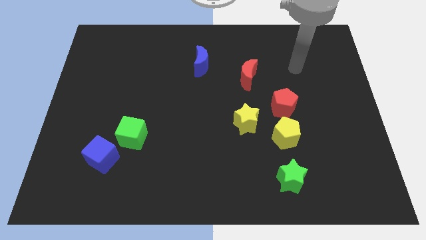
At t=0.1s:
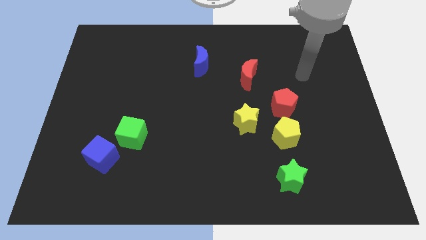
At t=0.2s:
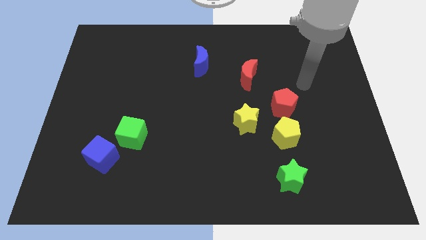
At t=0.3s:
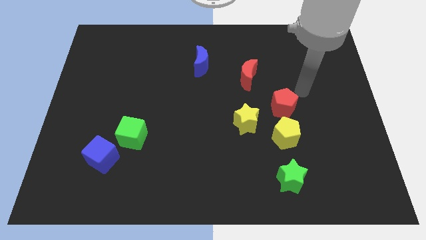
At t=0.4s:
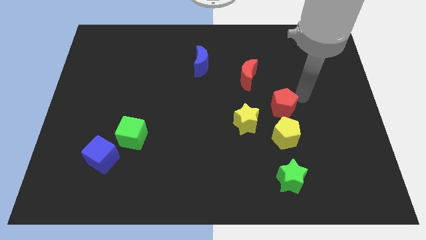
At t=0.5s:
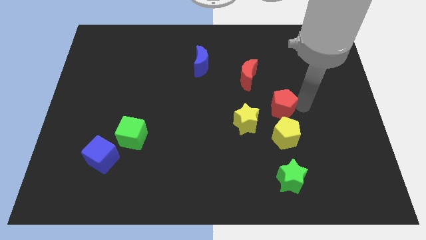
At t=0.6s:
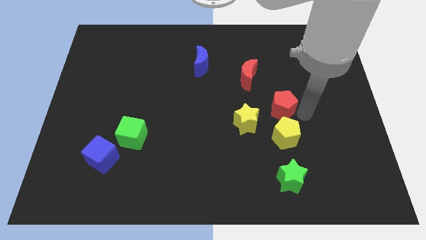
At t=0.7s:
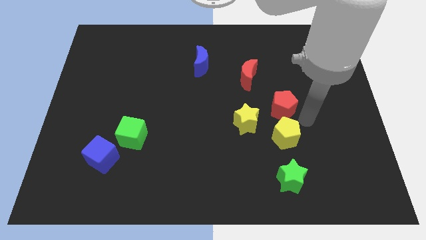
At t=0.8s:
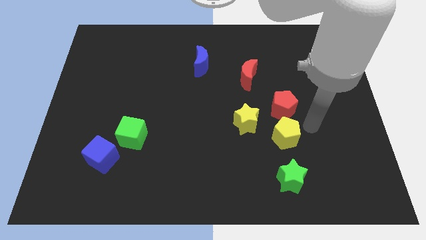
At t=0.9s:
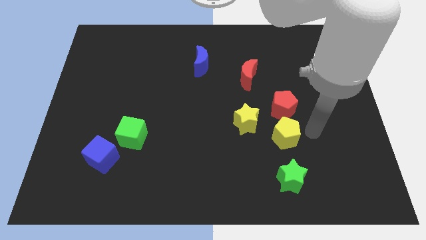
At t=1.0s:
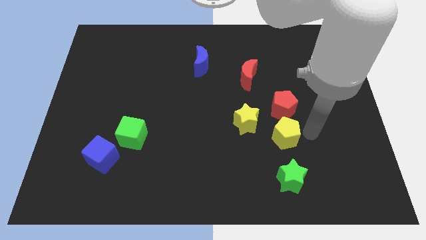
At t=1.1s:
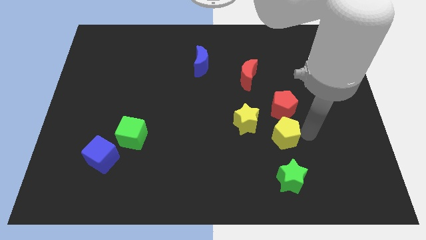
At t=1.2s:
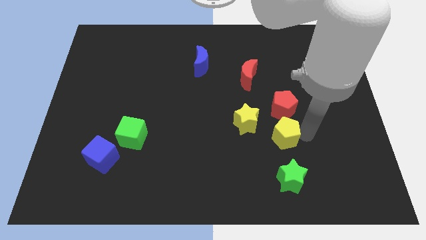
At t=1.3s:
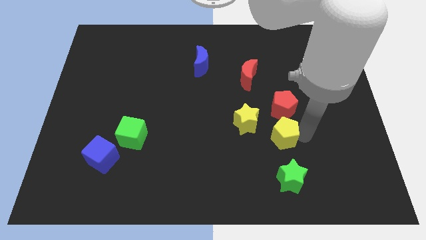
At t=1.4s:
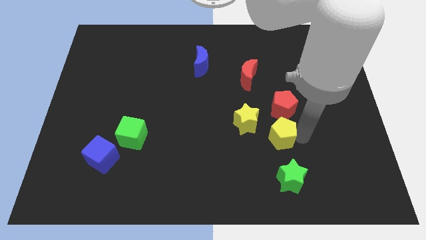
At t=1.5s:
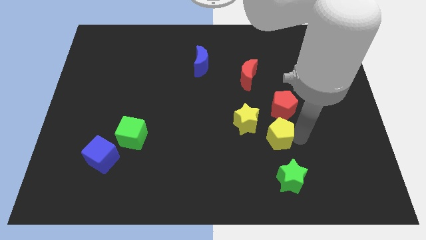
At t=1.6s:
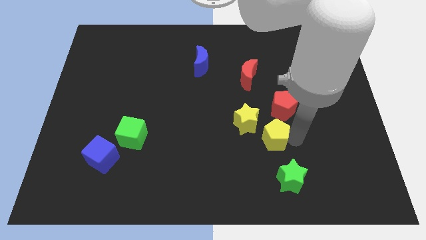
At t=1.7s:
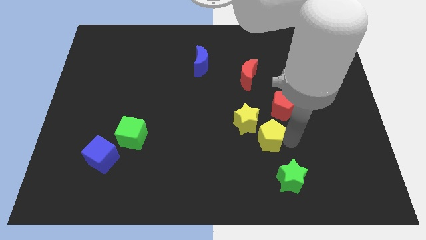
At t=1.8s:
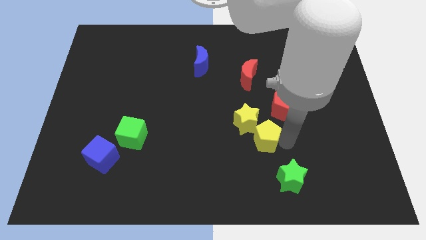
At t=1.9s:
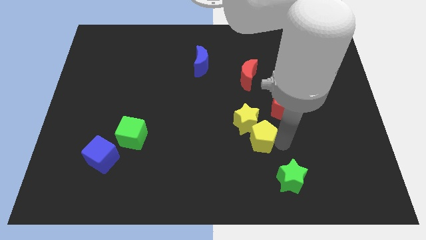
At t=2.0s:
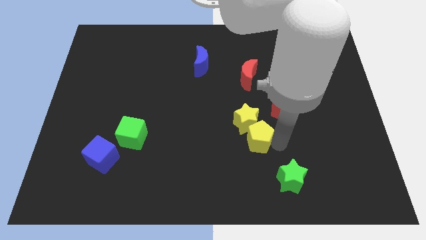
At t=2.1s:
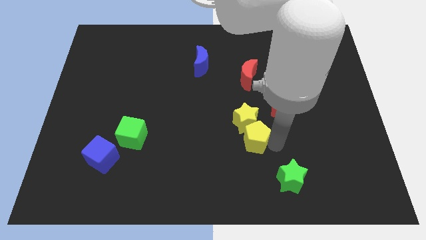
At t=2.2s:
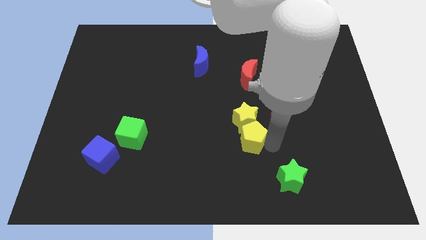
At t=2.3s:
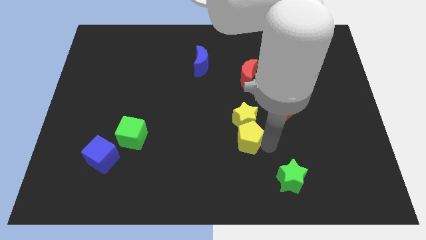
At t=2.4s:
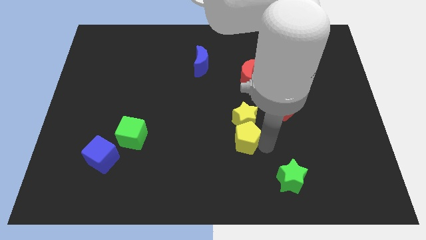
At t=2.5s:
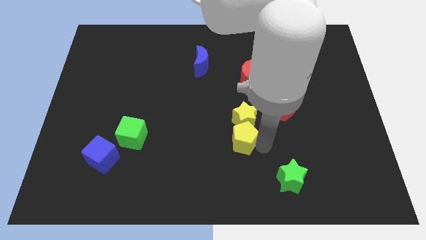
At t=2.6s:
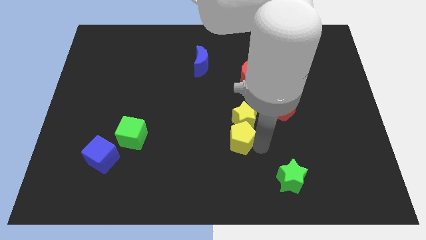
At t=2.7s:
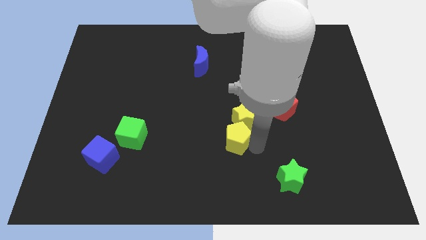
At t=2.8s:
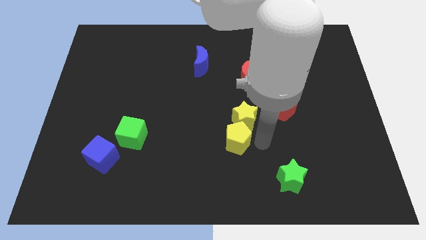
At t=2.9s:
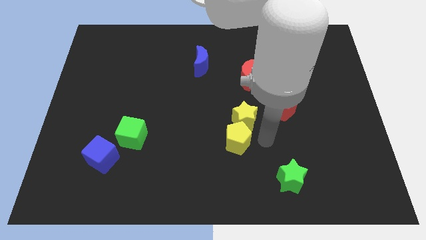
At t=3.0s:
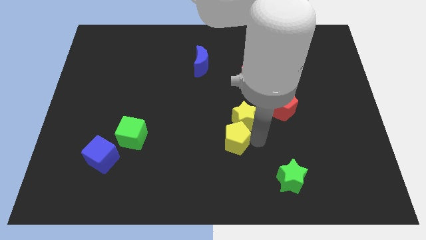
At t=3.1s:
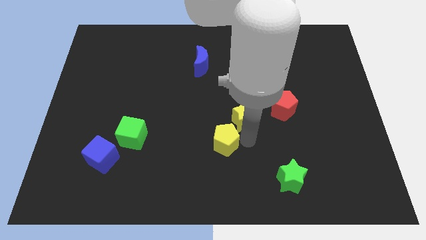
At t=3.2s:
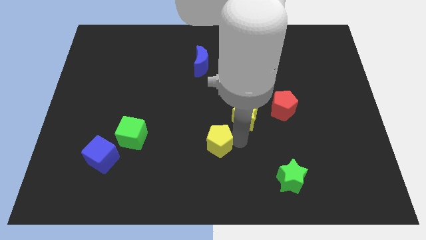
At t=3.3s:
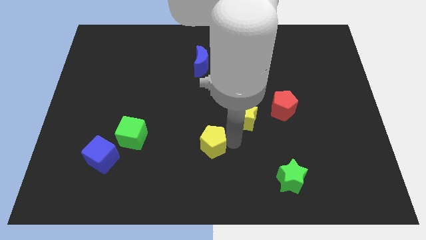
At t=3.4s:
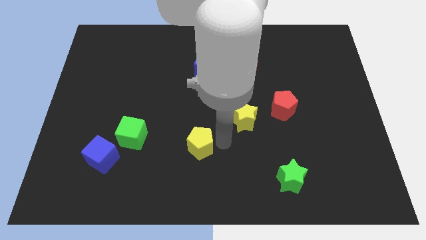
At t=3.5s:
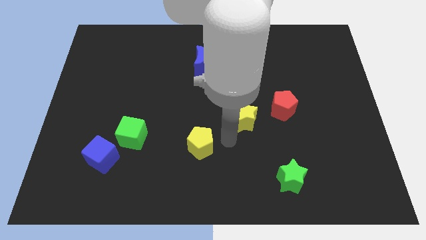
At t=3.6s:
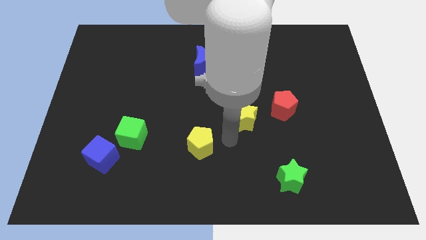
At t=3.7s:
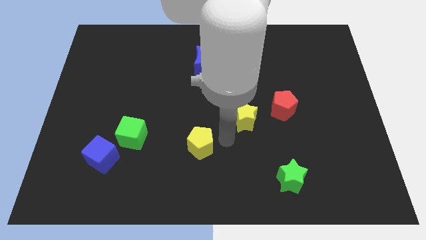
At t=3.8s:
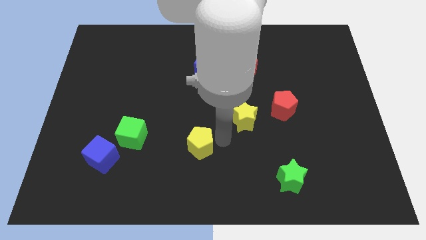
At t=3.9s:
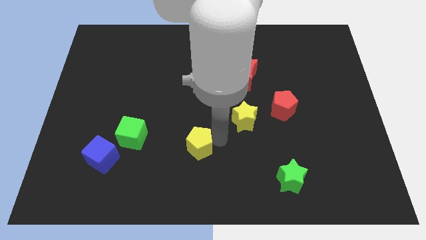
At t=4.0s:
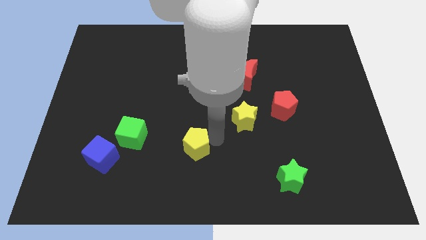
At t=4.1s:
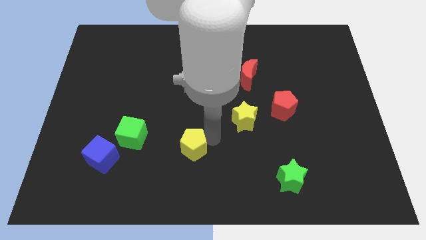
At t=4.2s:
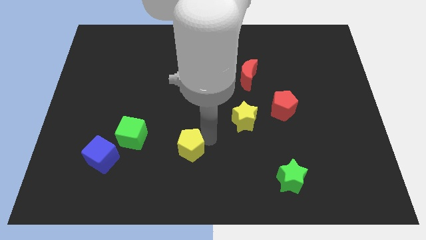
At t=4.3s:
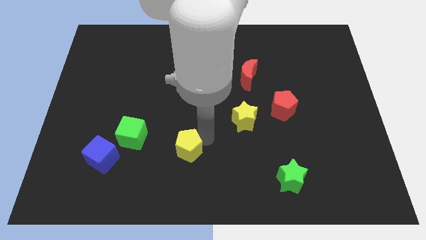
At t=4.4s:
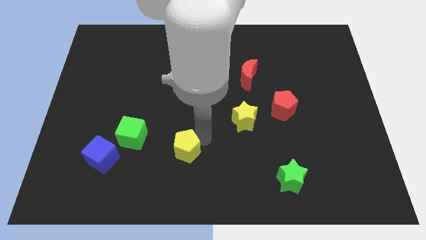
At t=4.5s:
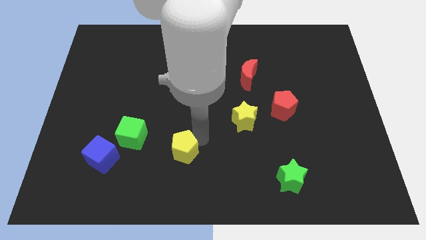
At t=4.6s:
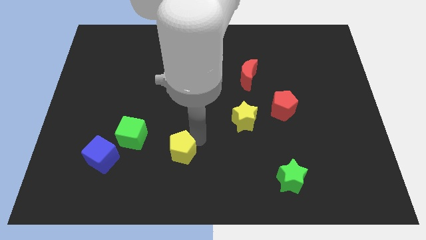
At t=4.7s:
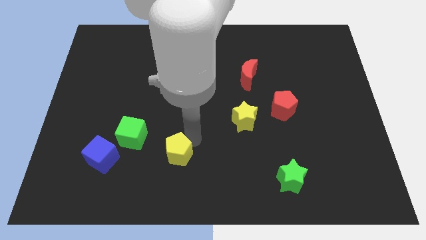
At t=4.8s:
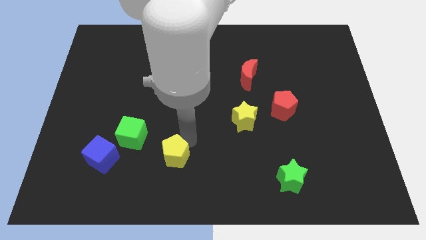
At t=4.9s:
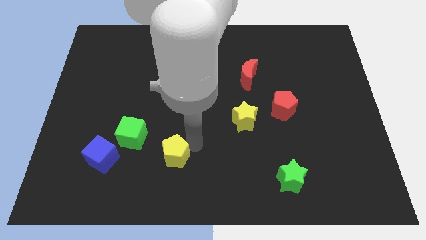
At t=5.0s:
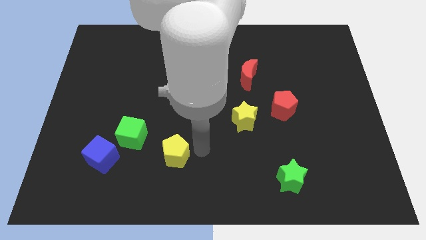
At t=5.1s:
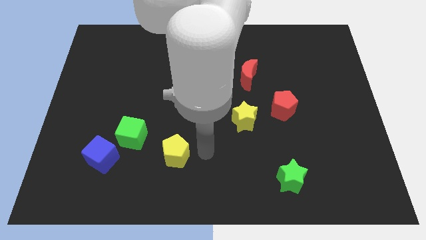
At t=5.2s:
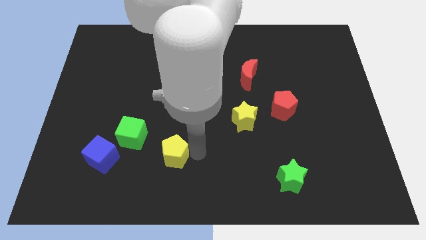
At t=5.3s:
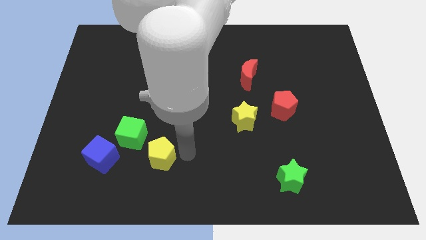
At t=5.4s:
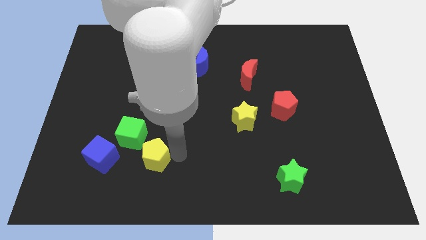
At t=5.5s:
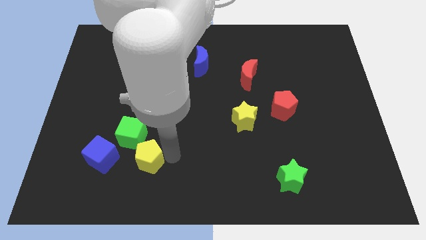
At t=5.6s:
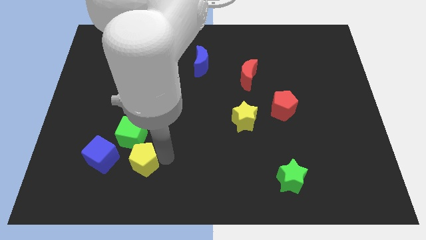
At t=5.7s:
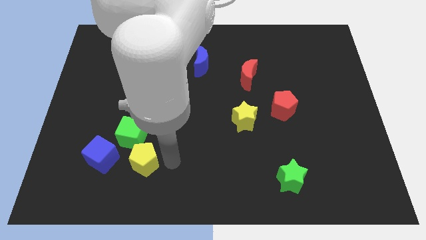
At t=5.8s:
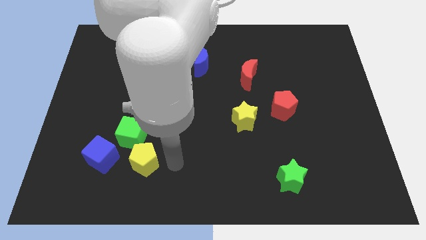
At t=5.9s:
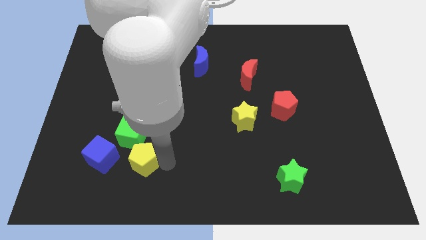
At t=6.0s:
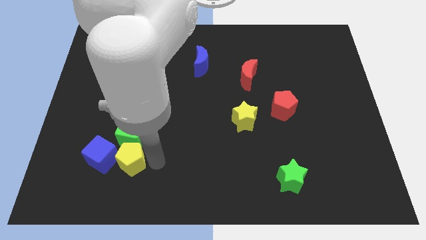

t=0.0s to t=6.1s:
move the yellow pentagon next to the blue cube

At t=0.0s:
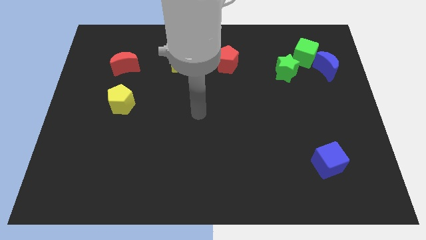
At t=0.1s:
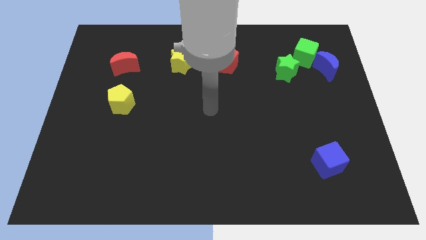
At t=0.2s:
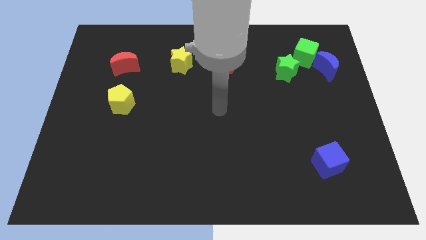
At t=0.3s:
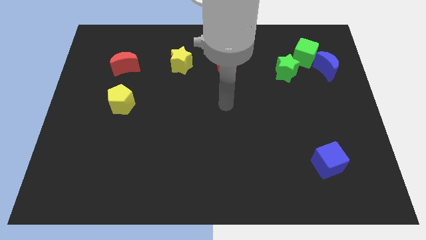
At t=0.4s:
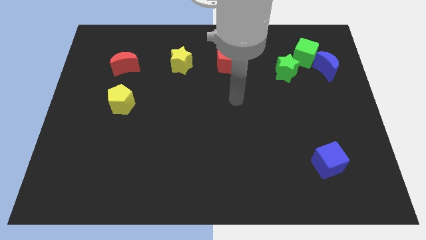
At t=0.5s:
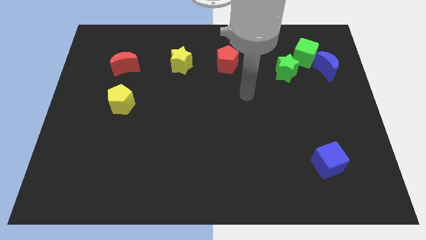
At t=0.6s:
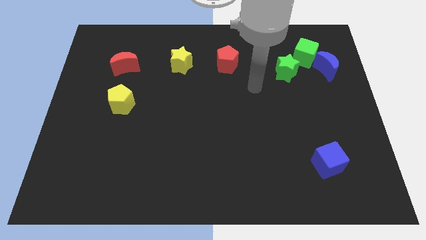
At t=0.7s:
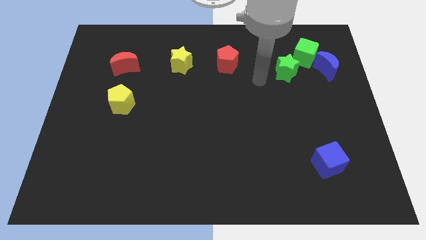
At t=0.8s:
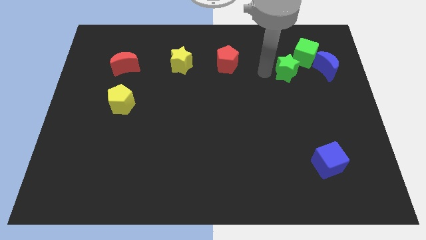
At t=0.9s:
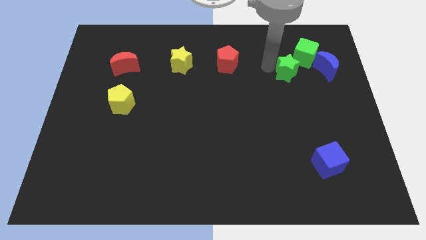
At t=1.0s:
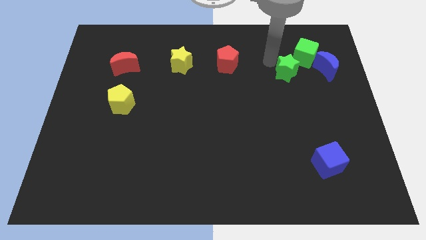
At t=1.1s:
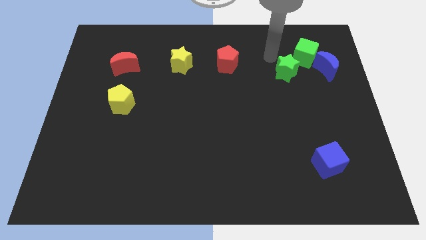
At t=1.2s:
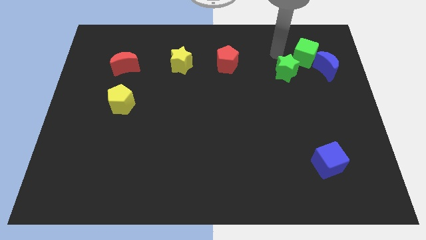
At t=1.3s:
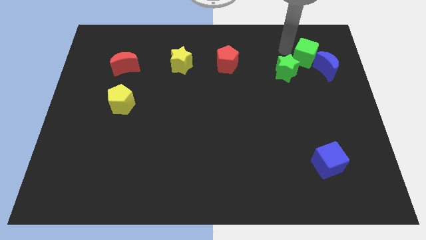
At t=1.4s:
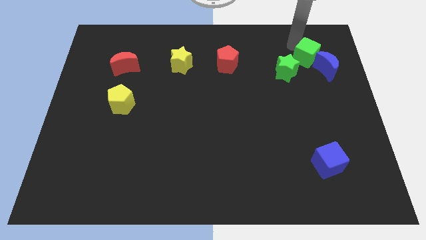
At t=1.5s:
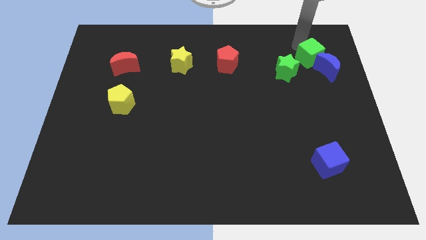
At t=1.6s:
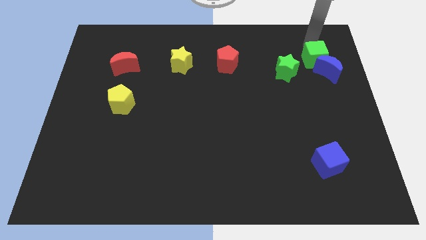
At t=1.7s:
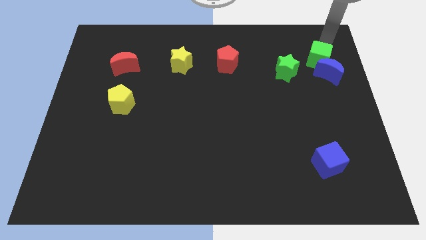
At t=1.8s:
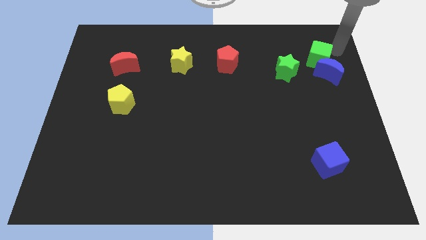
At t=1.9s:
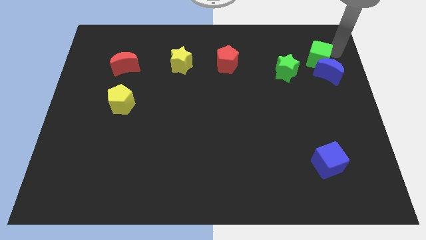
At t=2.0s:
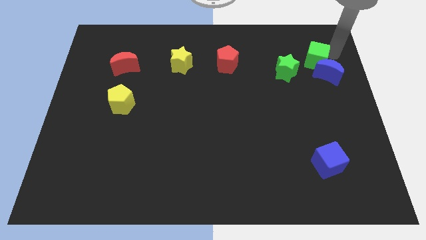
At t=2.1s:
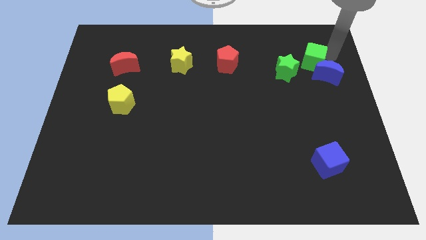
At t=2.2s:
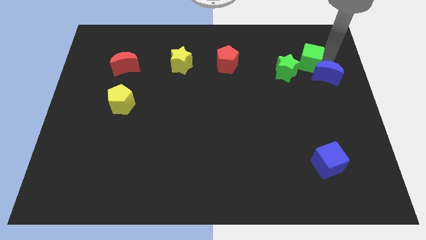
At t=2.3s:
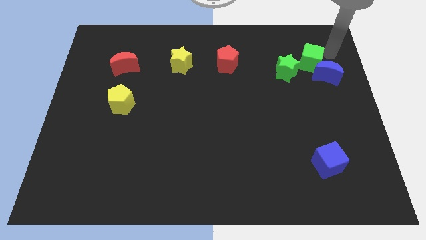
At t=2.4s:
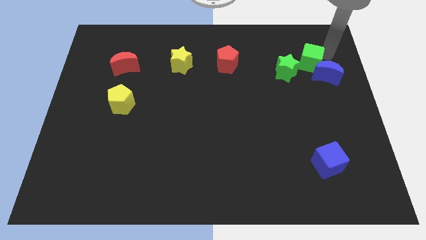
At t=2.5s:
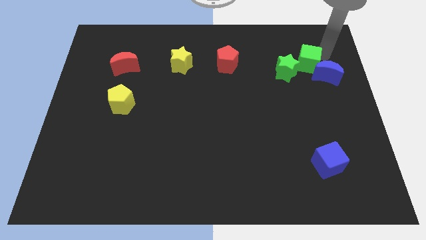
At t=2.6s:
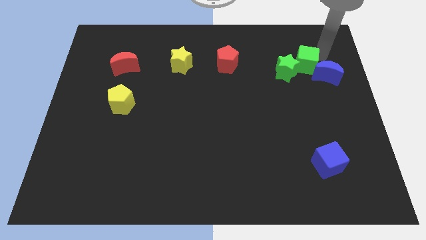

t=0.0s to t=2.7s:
put the green cube close to the green star
